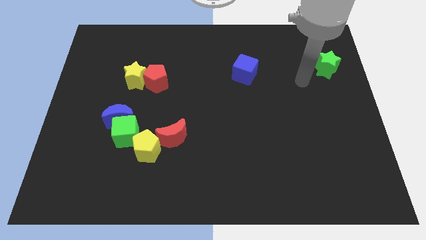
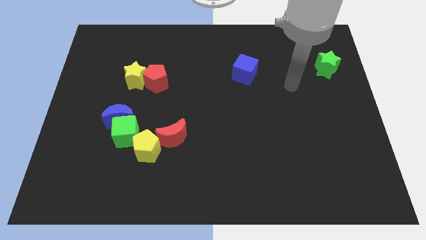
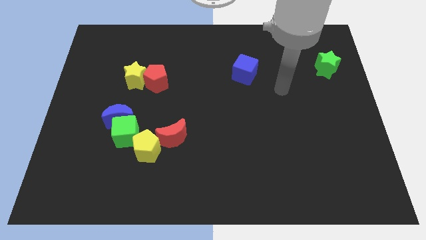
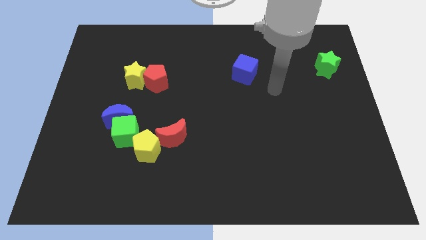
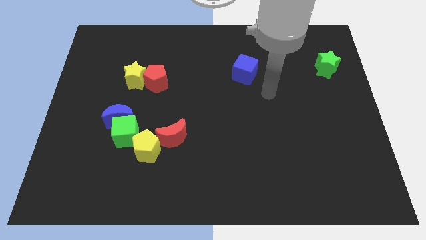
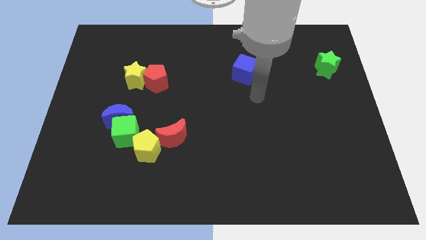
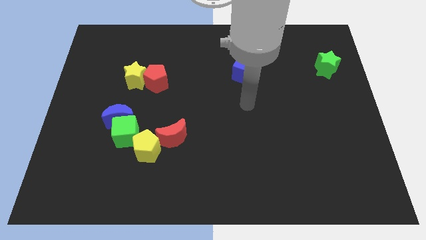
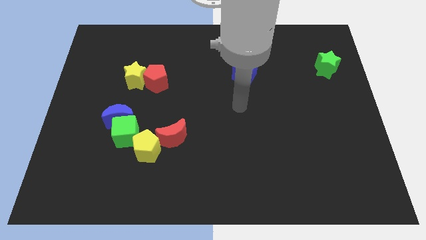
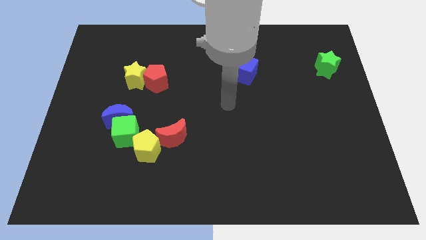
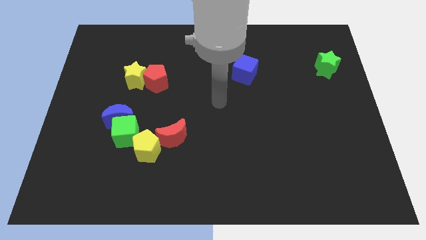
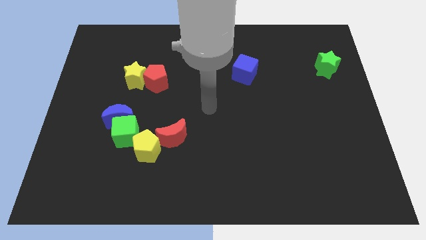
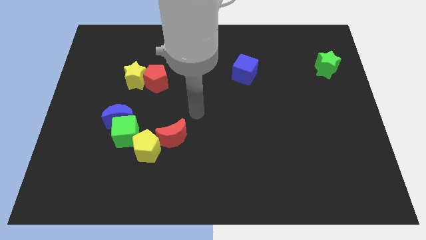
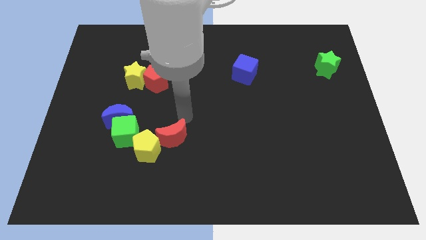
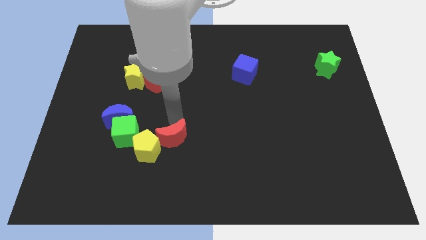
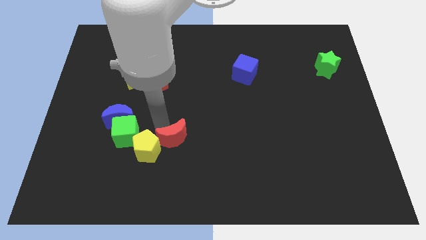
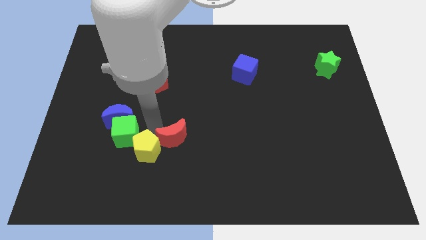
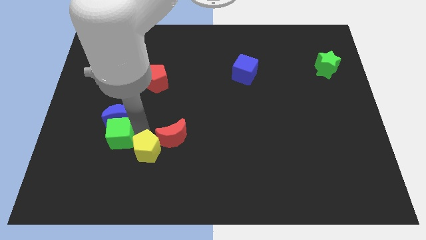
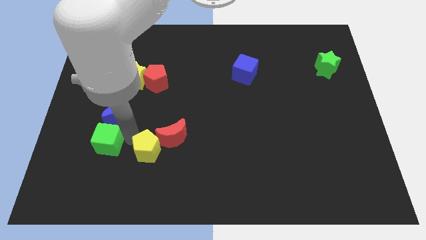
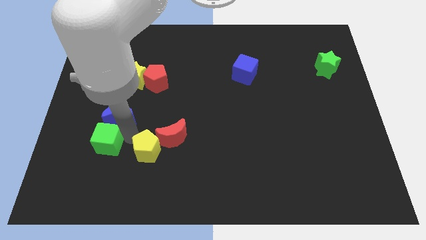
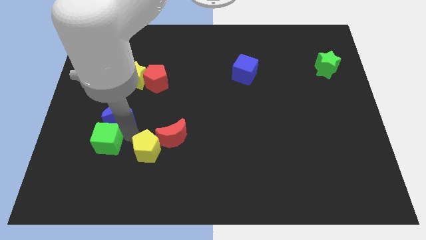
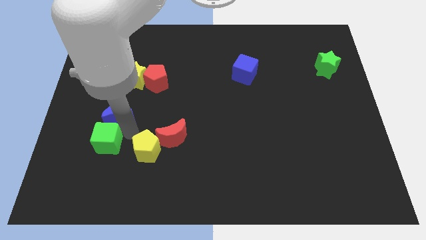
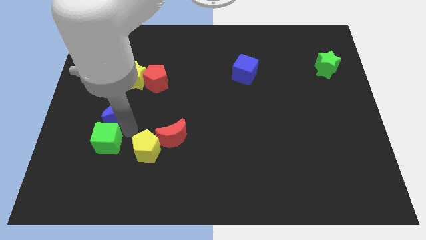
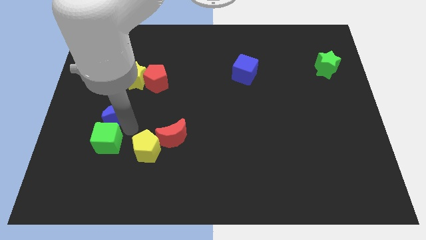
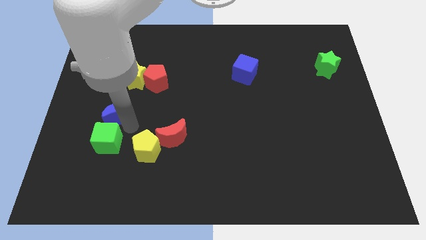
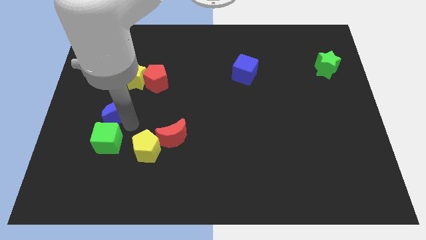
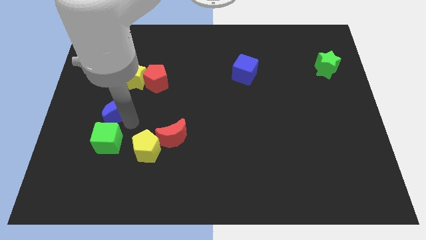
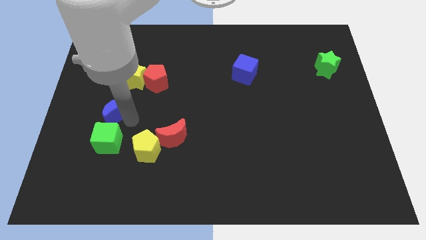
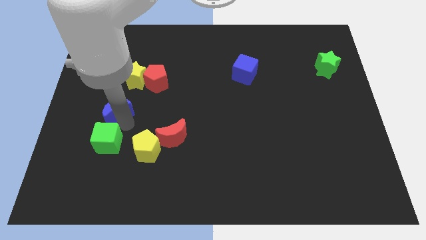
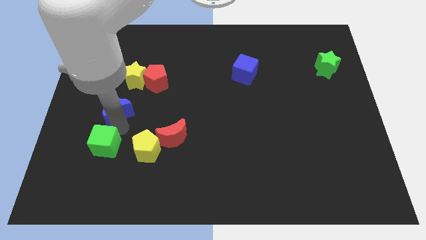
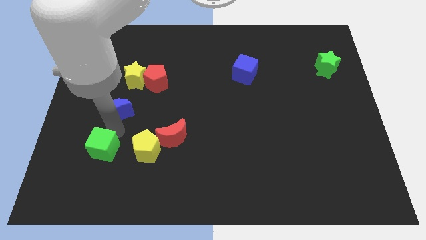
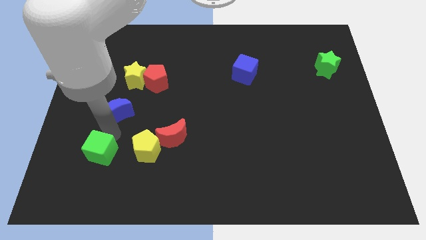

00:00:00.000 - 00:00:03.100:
move the blue moon away from the green cube

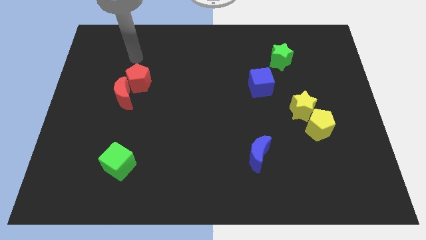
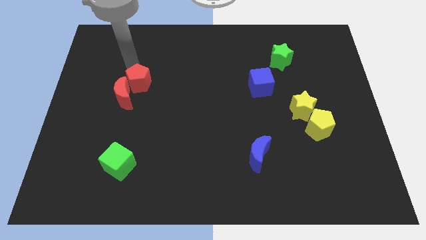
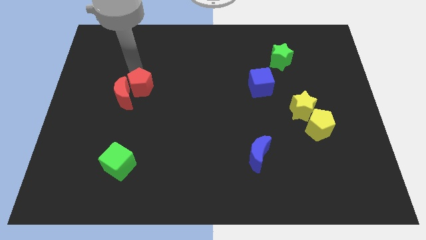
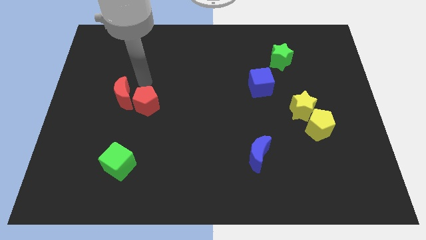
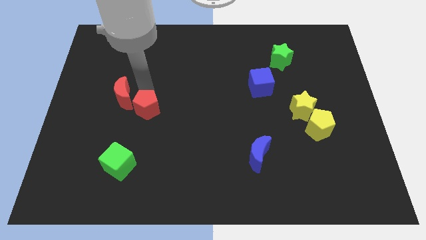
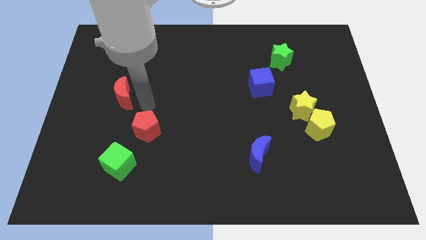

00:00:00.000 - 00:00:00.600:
separate the red moon from the red pentagon

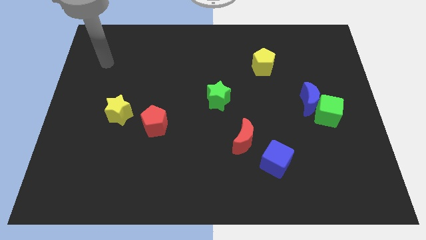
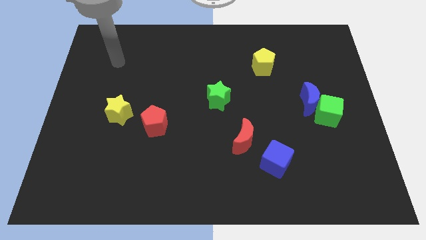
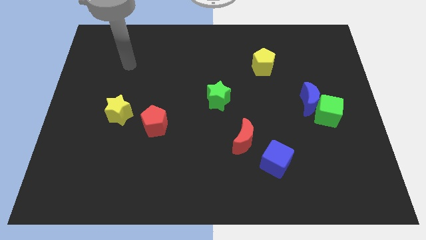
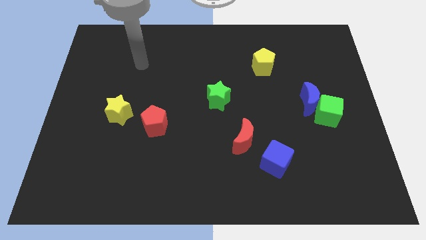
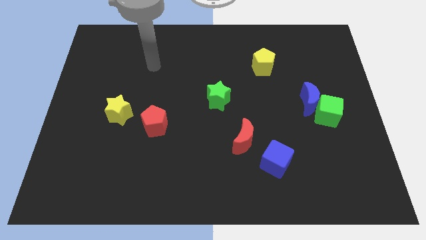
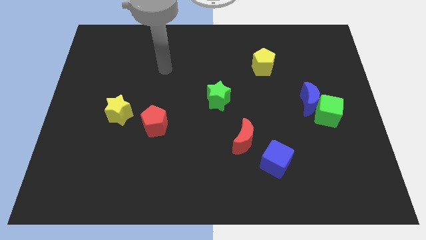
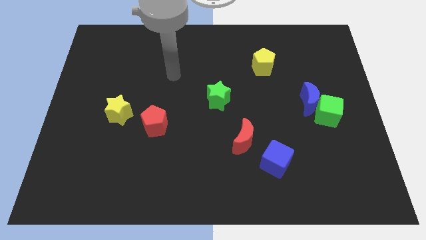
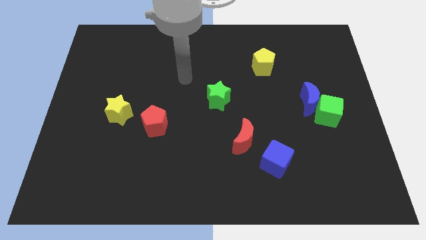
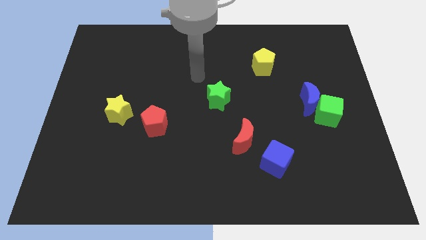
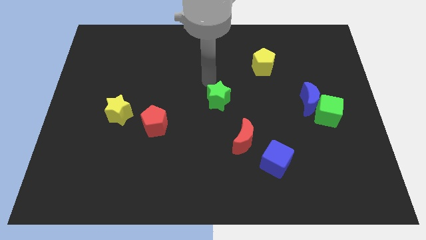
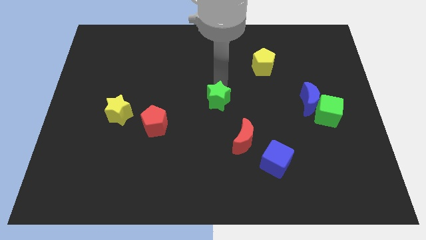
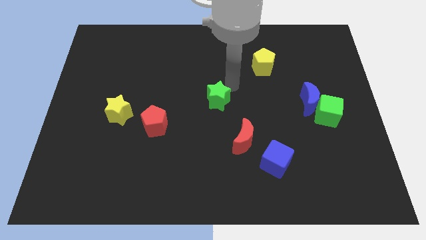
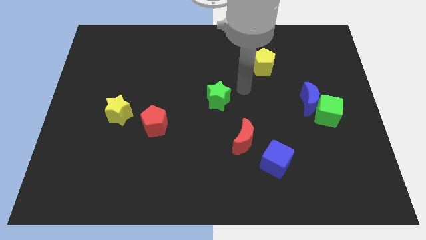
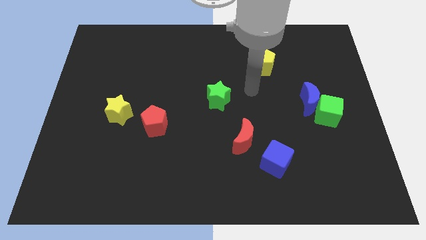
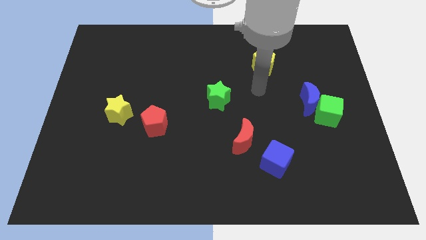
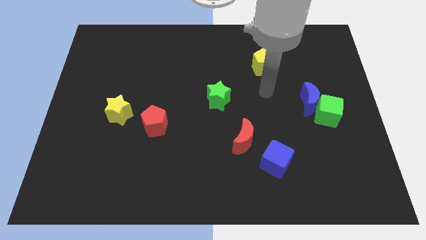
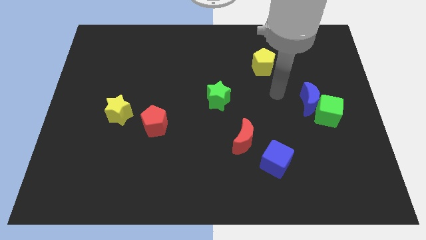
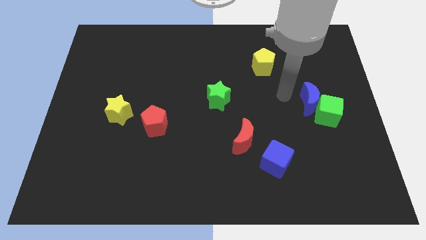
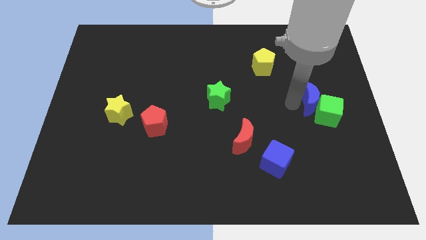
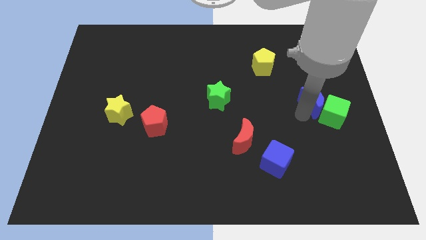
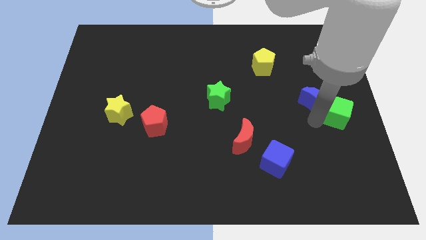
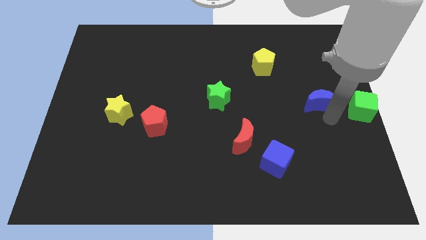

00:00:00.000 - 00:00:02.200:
separate the blue moon from the green cube

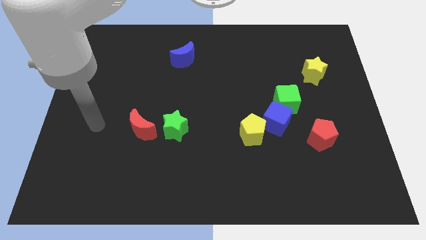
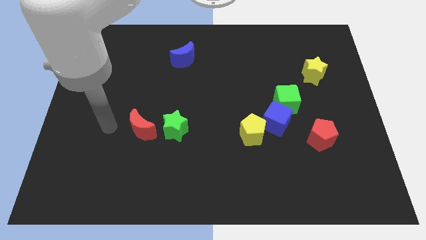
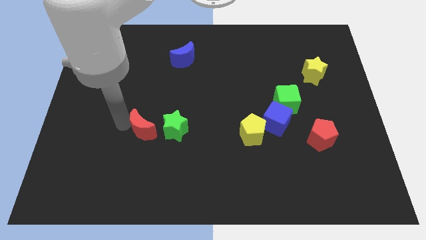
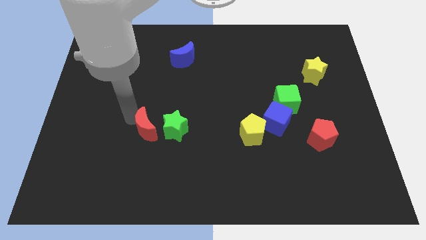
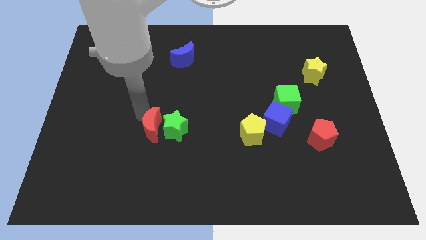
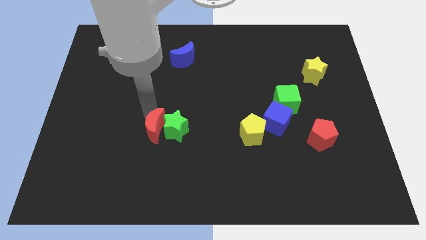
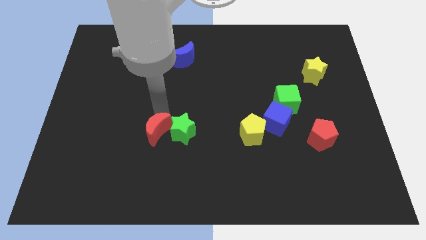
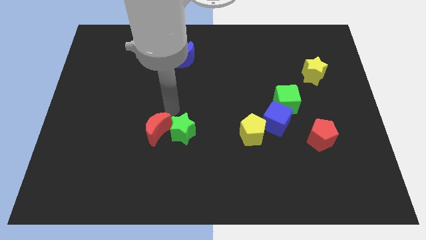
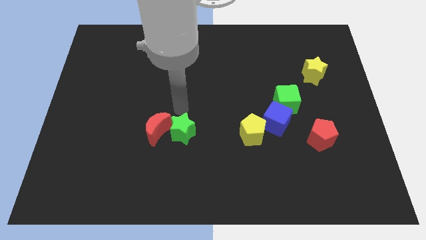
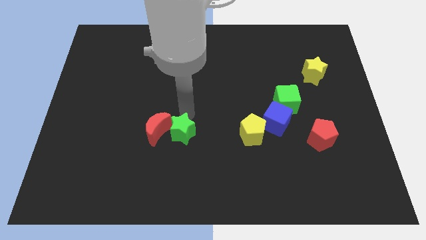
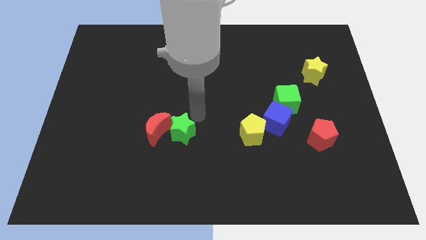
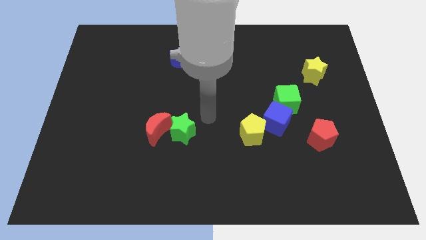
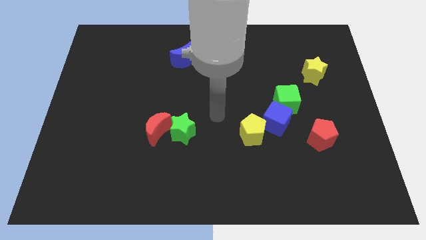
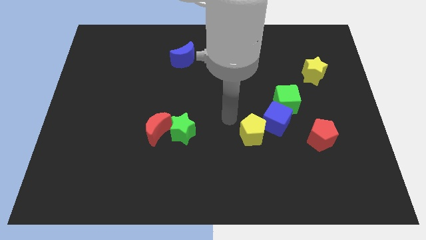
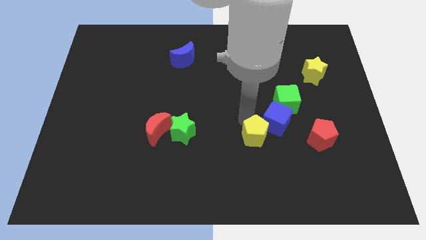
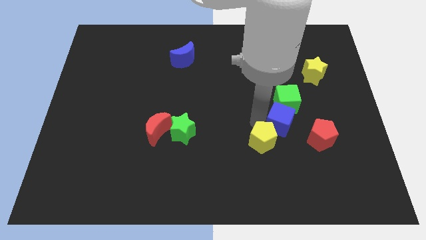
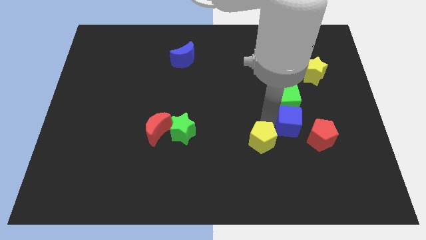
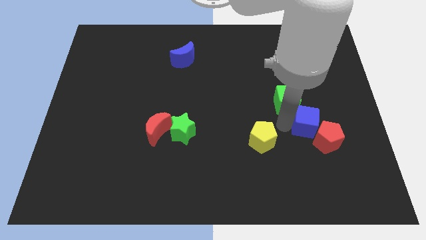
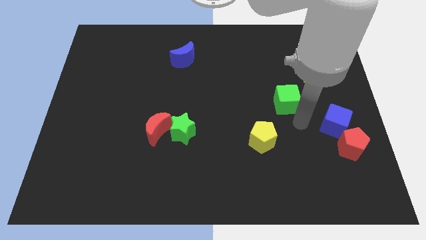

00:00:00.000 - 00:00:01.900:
pull the green cube apart from the blue cube

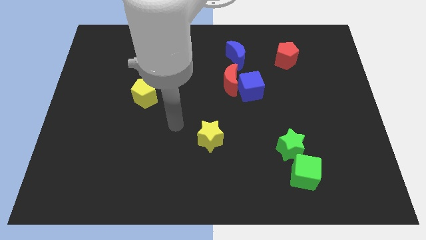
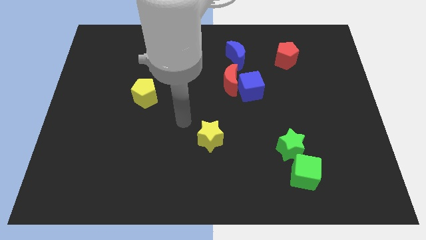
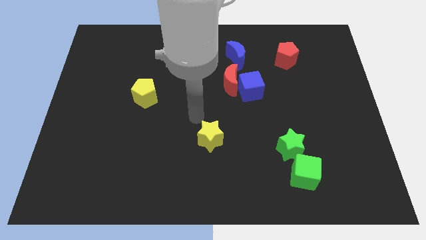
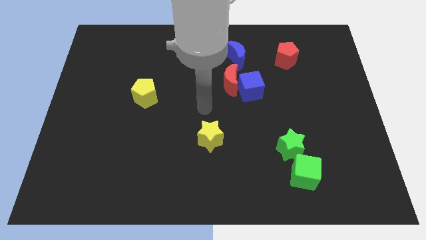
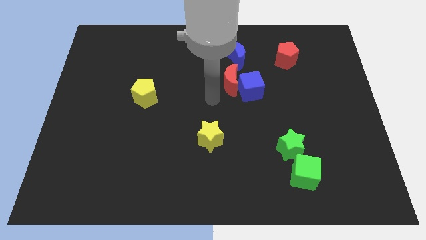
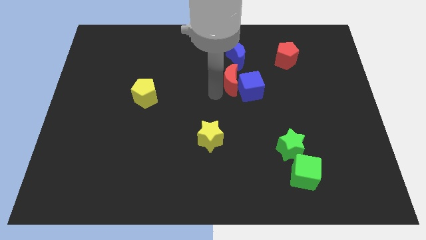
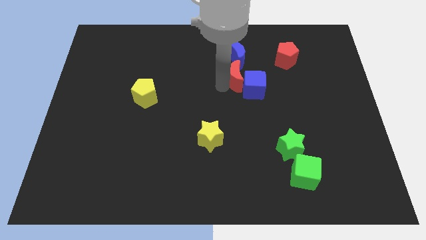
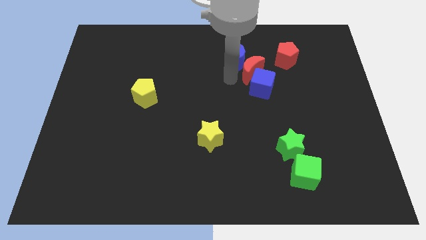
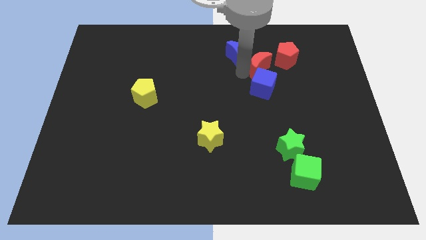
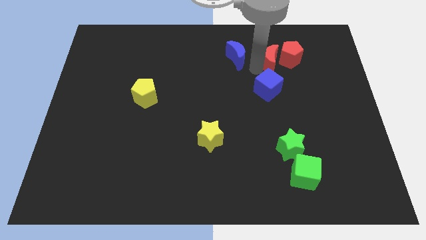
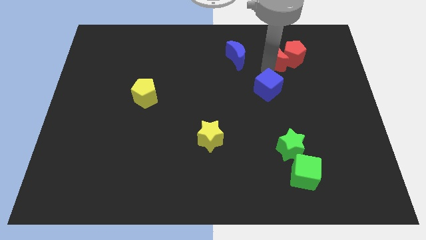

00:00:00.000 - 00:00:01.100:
pull the blue cube apart from the red moon

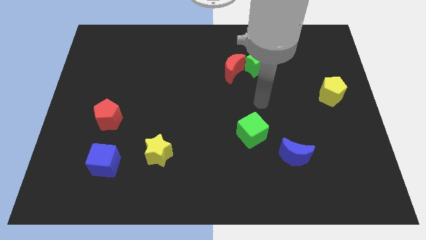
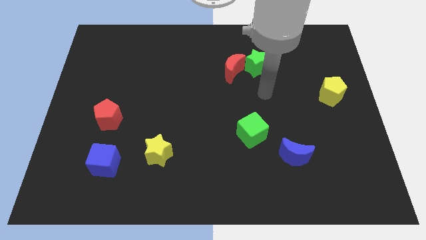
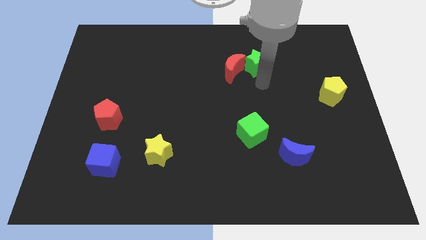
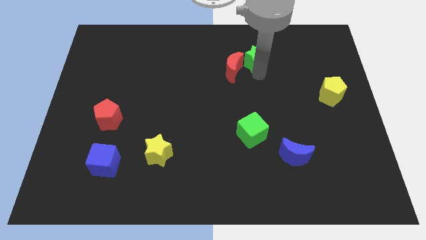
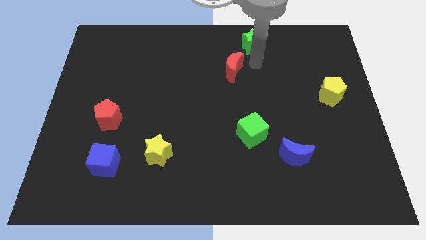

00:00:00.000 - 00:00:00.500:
move the red moon away from the green star
